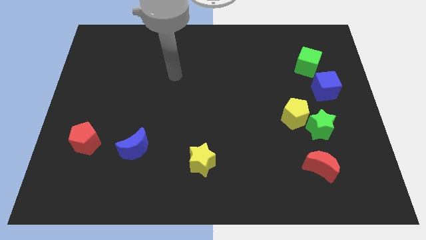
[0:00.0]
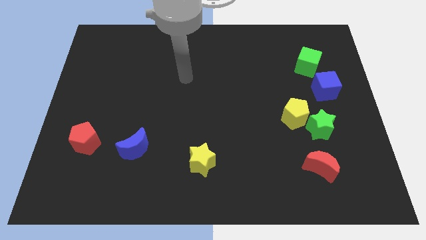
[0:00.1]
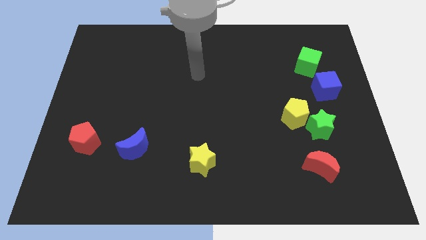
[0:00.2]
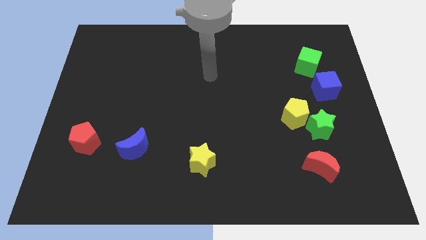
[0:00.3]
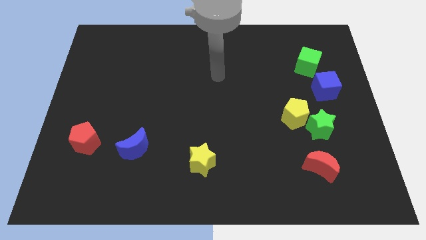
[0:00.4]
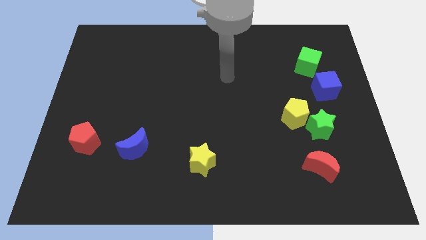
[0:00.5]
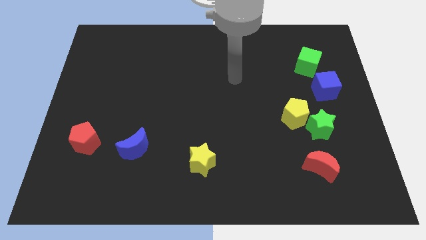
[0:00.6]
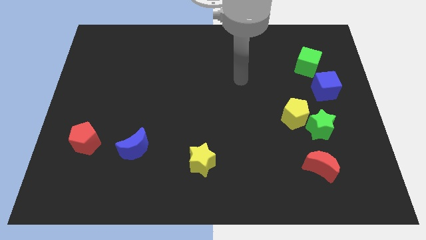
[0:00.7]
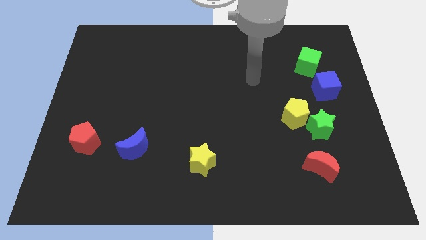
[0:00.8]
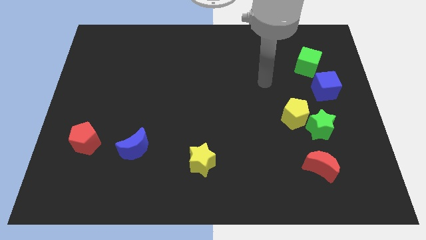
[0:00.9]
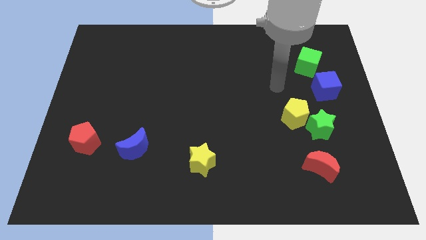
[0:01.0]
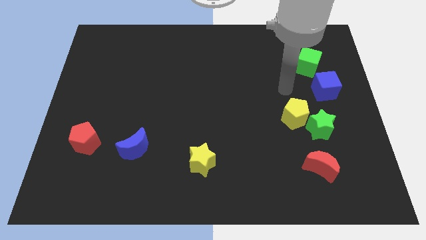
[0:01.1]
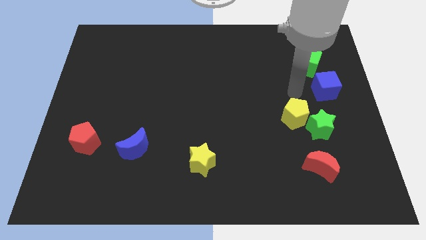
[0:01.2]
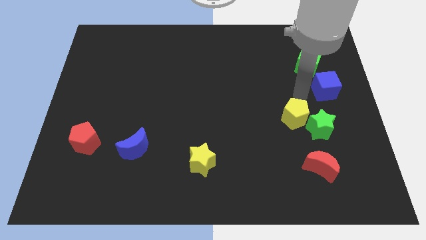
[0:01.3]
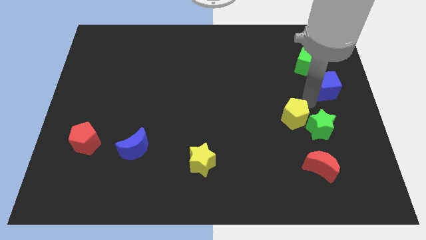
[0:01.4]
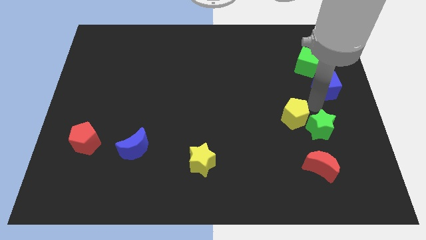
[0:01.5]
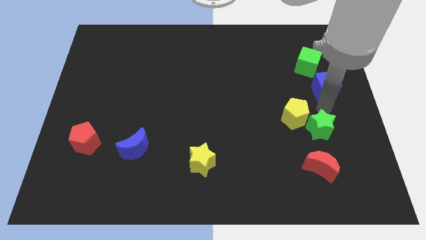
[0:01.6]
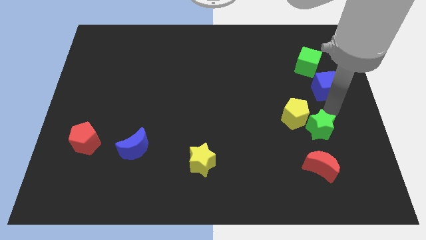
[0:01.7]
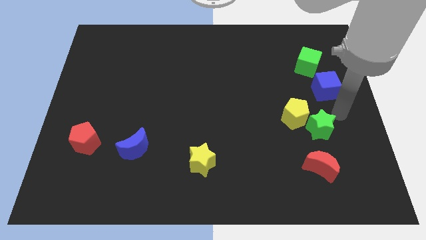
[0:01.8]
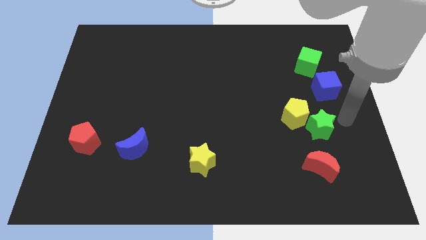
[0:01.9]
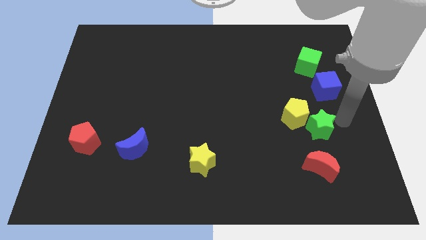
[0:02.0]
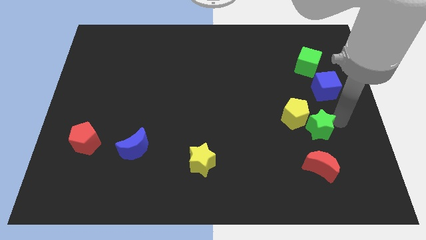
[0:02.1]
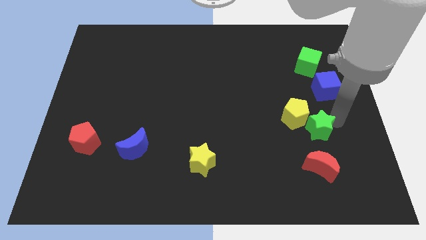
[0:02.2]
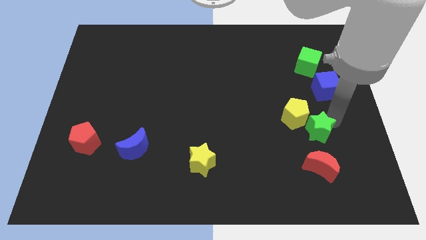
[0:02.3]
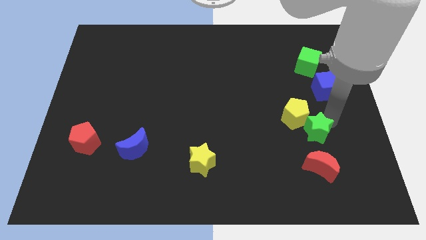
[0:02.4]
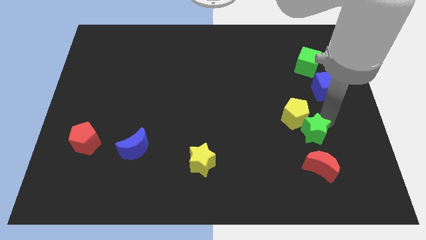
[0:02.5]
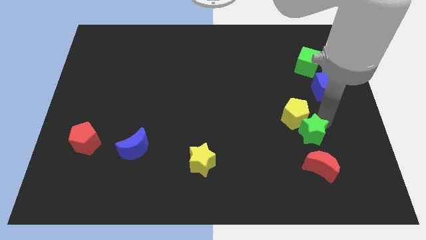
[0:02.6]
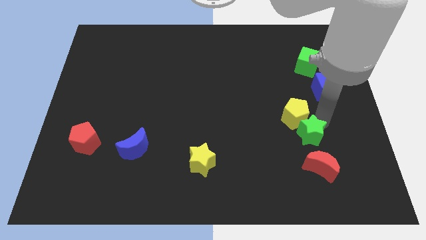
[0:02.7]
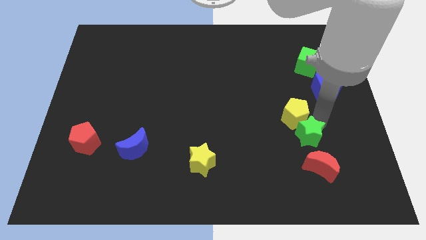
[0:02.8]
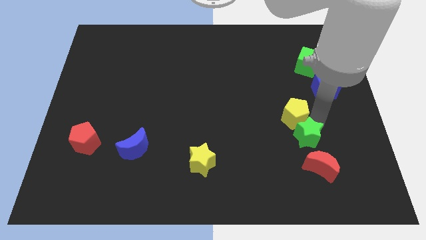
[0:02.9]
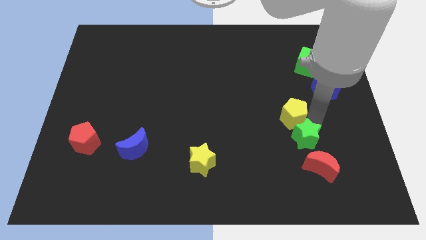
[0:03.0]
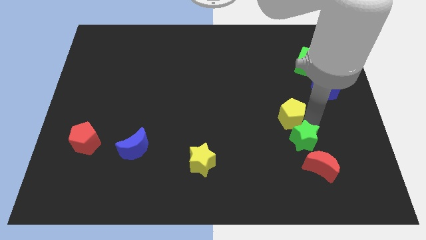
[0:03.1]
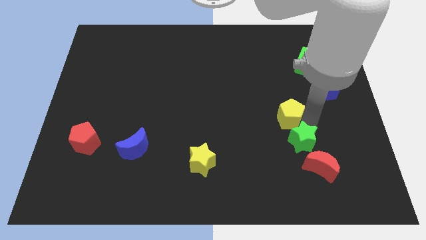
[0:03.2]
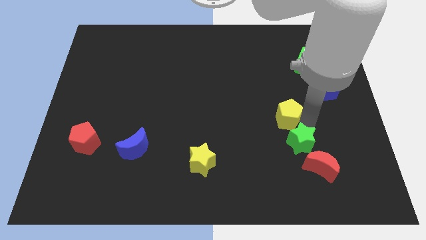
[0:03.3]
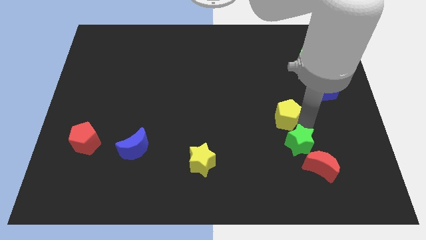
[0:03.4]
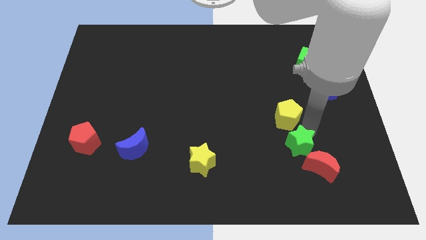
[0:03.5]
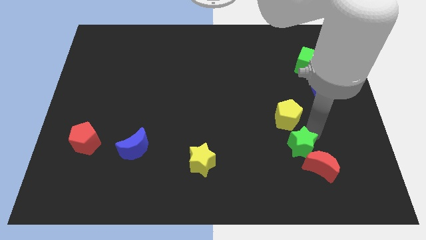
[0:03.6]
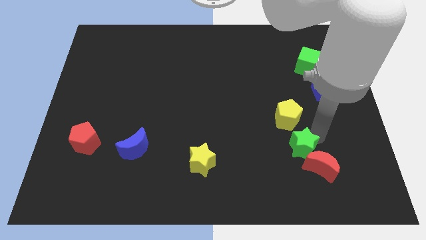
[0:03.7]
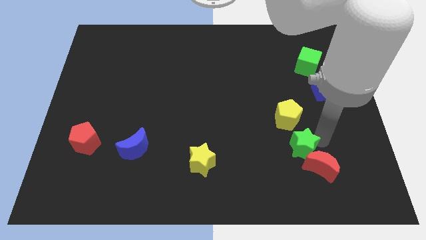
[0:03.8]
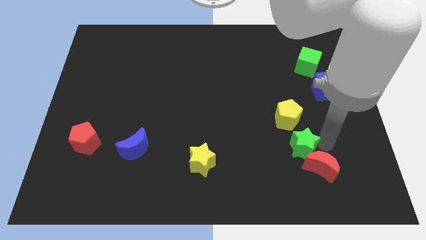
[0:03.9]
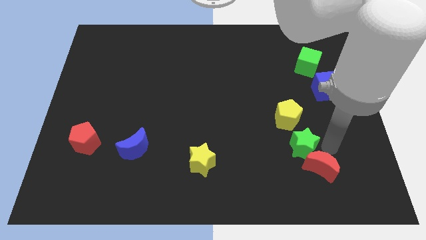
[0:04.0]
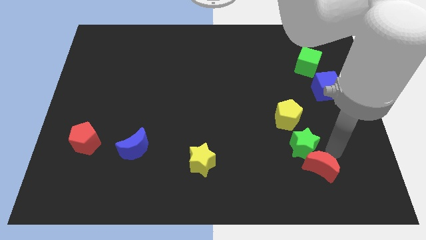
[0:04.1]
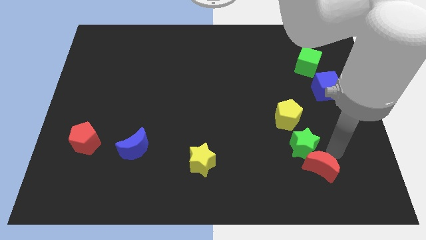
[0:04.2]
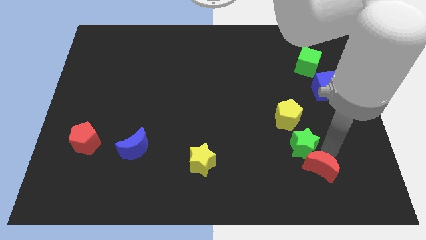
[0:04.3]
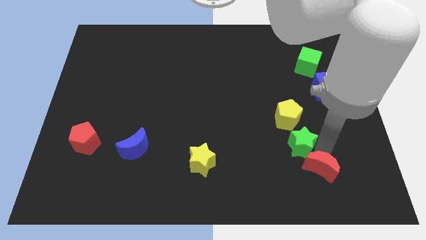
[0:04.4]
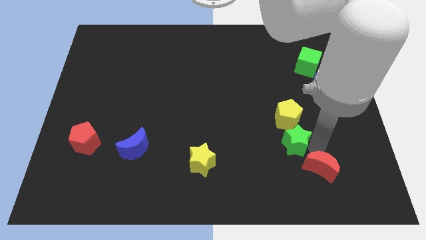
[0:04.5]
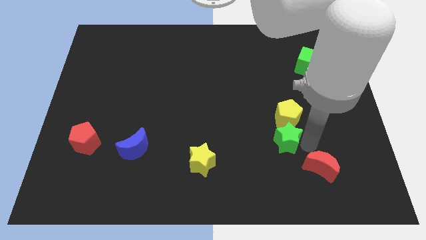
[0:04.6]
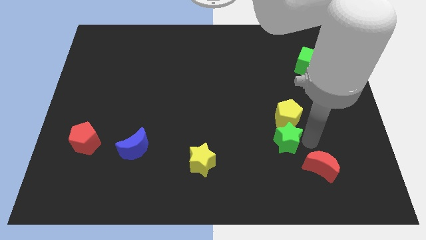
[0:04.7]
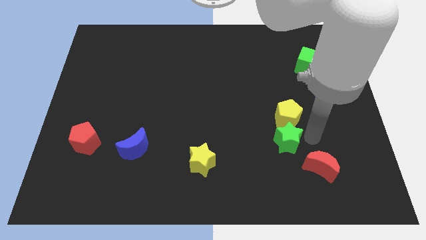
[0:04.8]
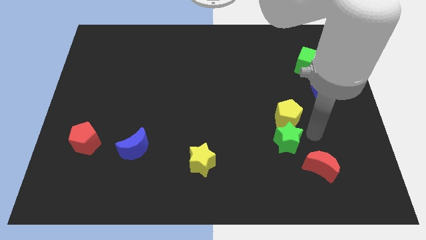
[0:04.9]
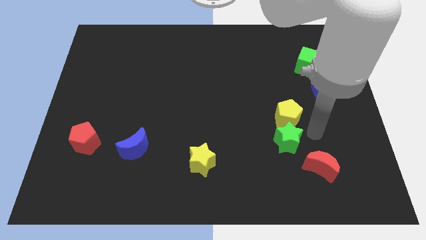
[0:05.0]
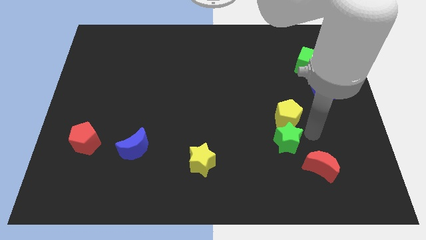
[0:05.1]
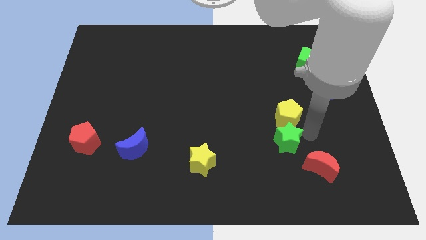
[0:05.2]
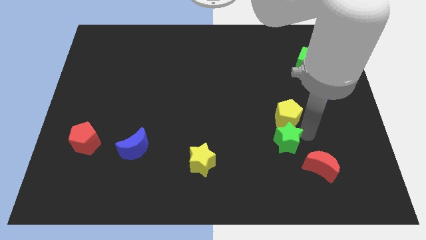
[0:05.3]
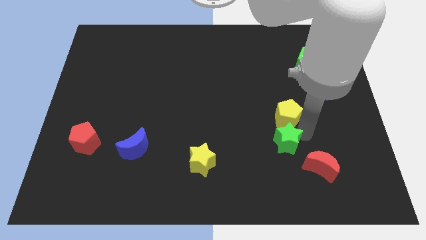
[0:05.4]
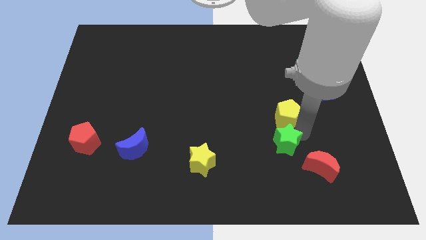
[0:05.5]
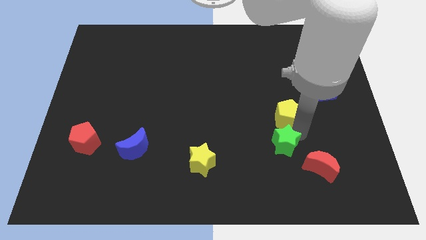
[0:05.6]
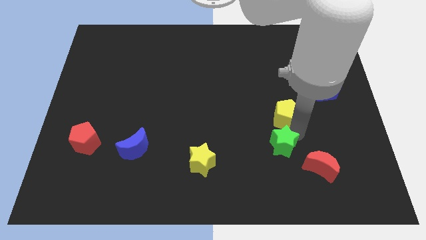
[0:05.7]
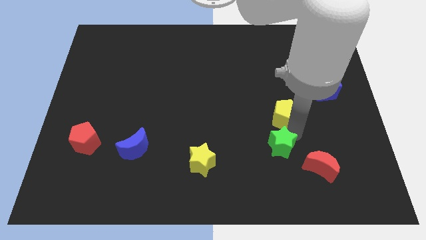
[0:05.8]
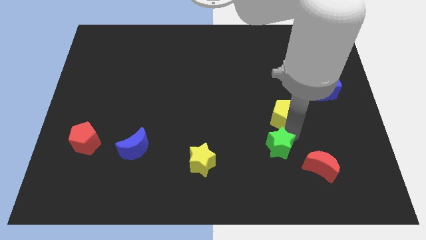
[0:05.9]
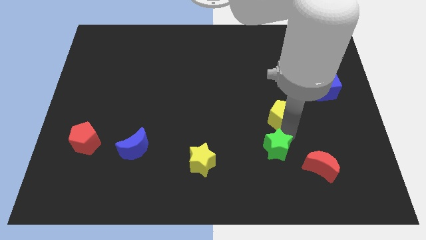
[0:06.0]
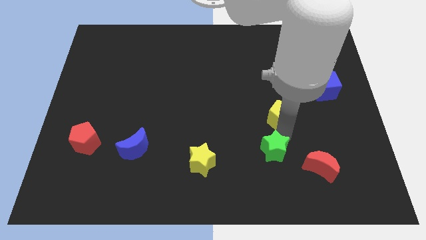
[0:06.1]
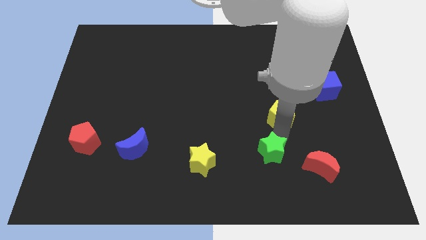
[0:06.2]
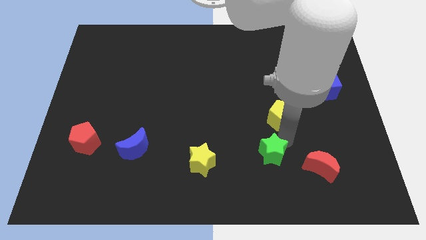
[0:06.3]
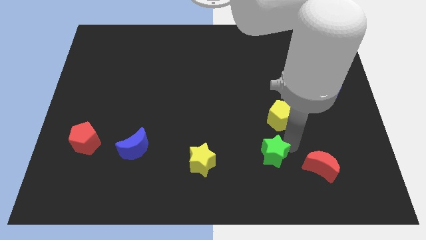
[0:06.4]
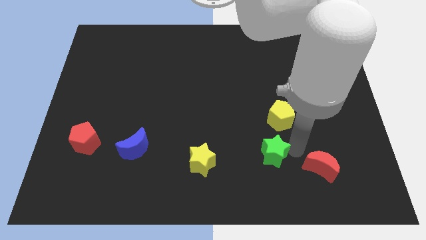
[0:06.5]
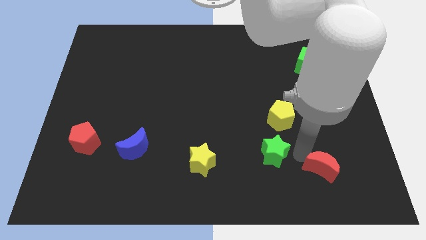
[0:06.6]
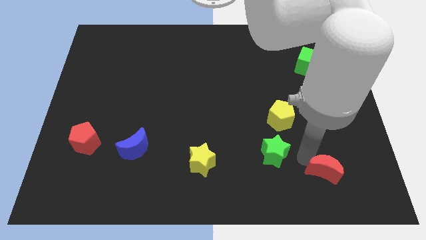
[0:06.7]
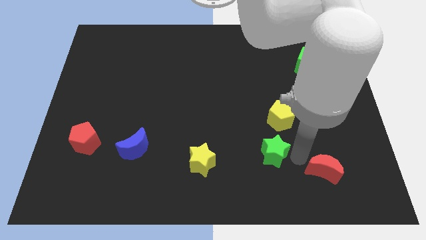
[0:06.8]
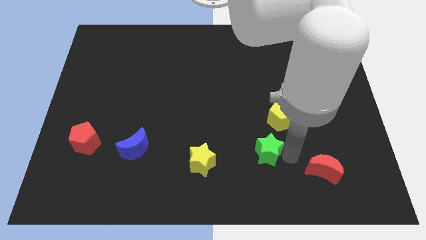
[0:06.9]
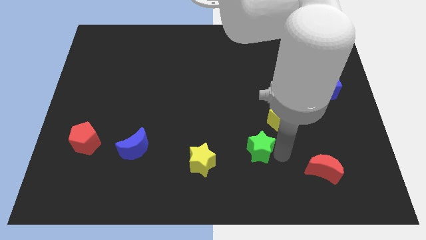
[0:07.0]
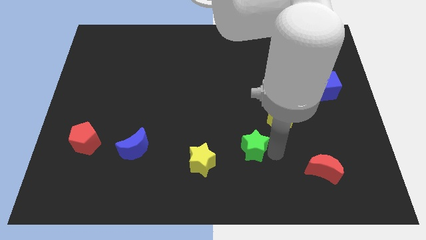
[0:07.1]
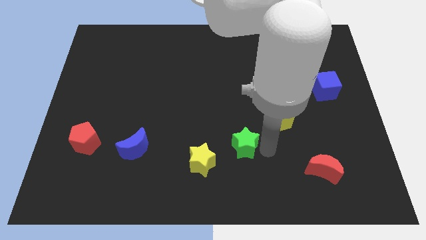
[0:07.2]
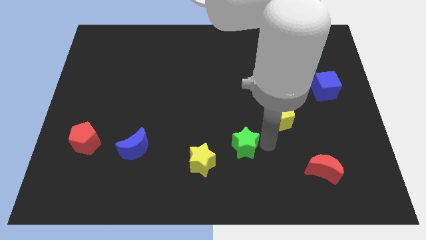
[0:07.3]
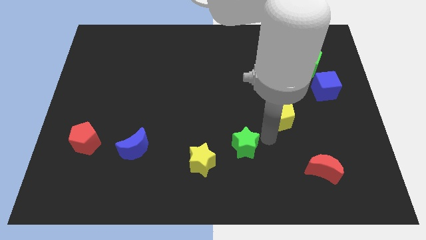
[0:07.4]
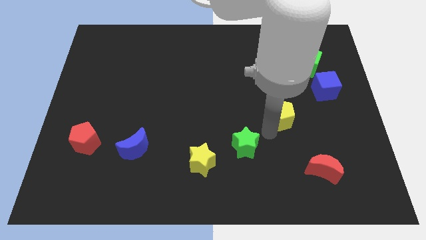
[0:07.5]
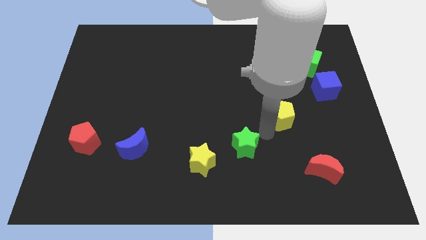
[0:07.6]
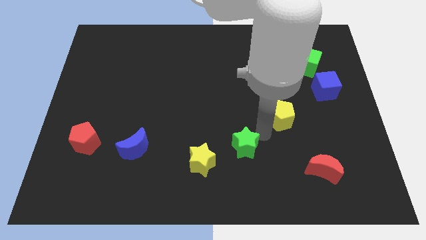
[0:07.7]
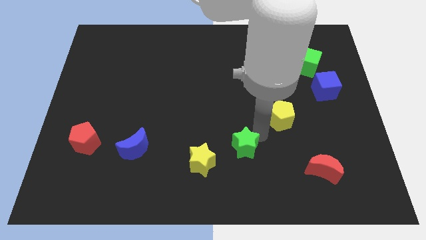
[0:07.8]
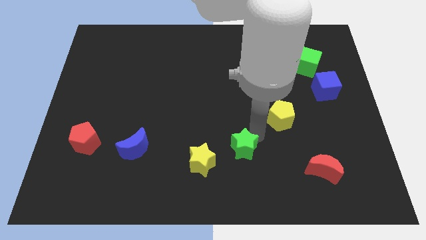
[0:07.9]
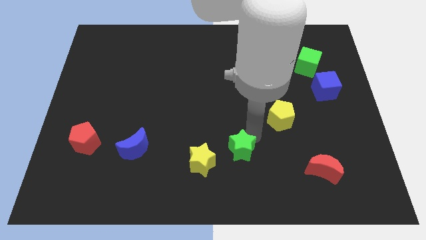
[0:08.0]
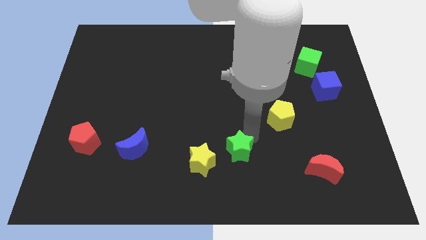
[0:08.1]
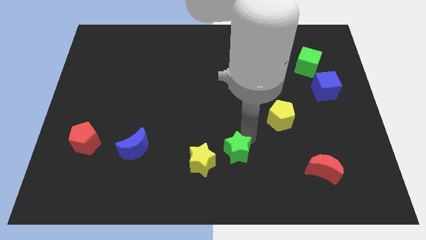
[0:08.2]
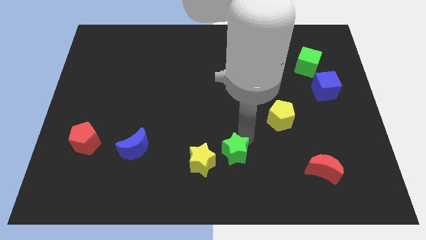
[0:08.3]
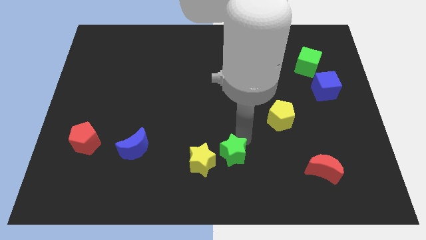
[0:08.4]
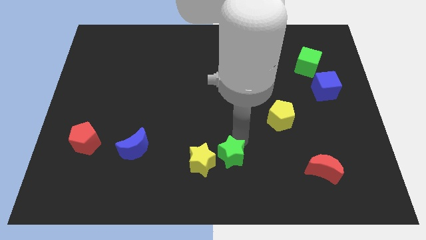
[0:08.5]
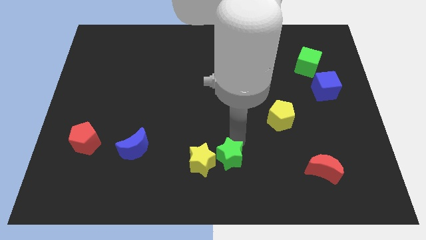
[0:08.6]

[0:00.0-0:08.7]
put the green star close to the yellow star
